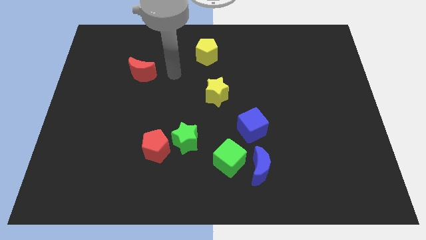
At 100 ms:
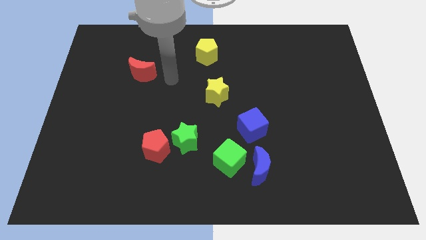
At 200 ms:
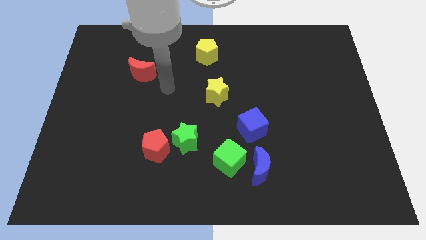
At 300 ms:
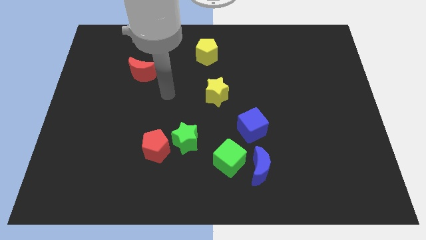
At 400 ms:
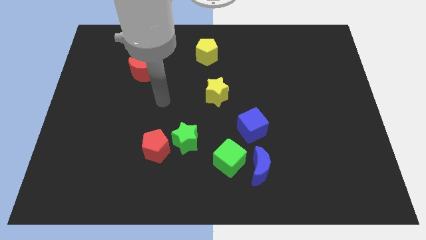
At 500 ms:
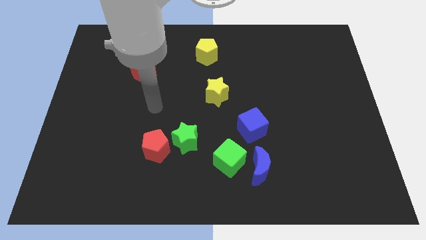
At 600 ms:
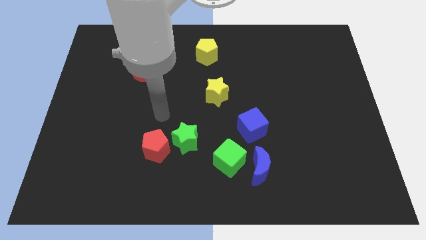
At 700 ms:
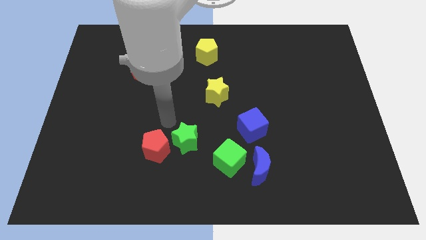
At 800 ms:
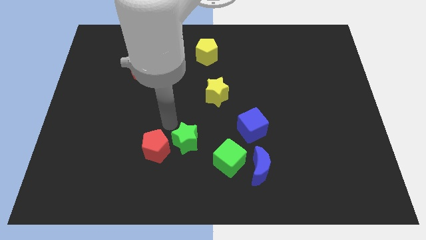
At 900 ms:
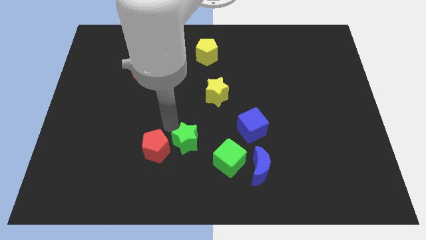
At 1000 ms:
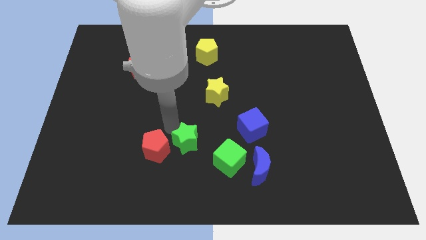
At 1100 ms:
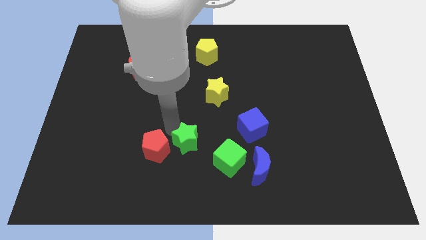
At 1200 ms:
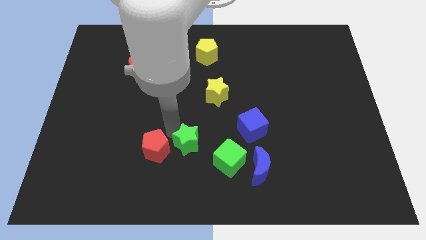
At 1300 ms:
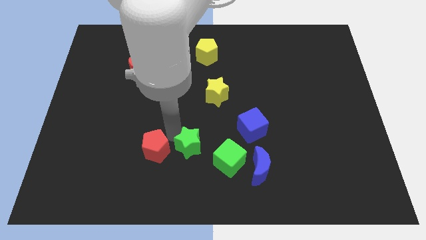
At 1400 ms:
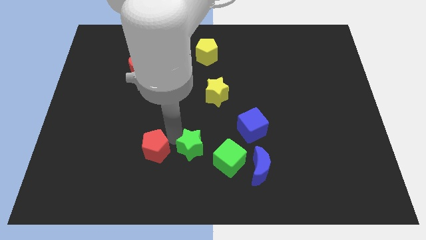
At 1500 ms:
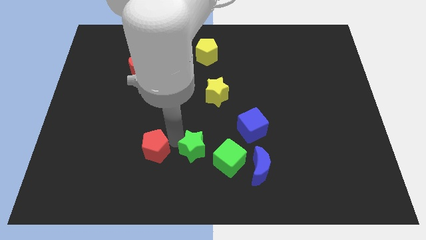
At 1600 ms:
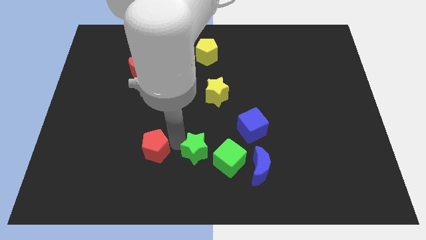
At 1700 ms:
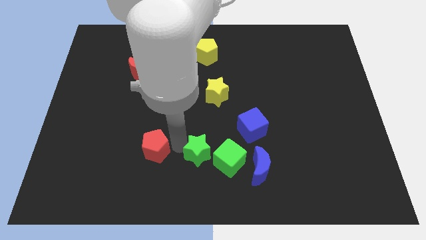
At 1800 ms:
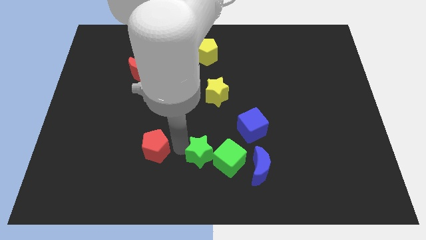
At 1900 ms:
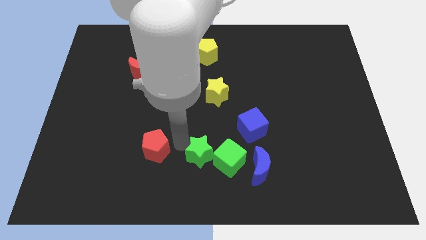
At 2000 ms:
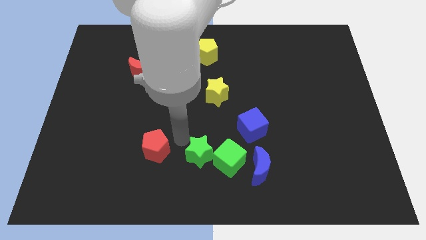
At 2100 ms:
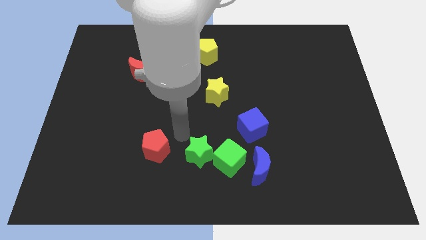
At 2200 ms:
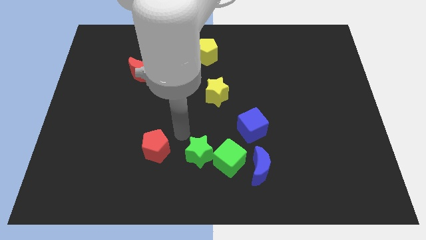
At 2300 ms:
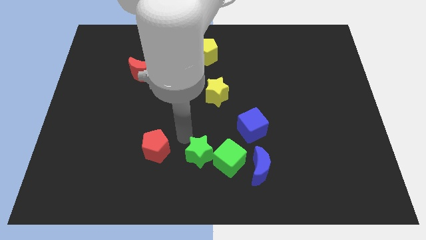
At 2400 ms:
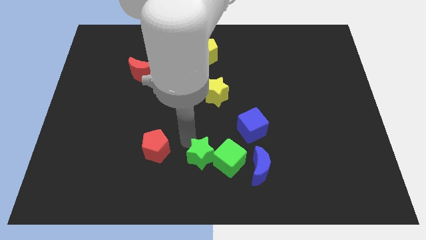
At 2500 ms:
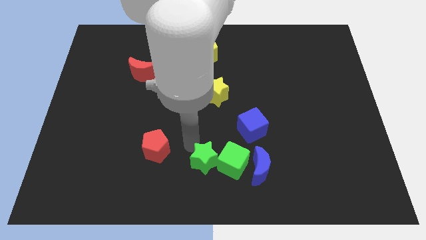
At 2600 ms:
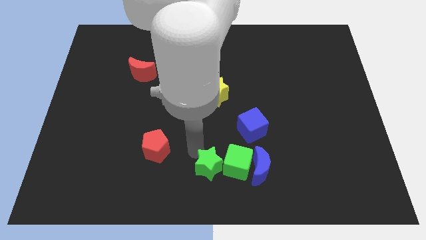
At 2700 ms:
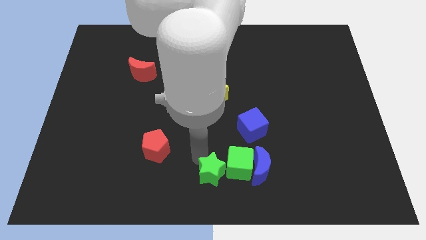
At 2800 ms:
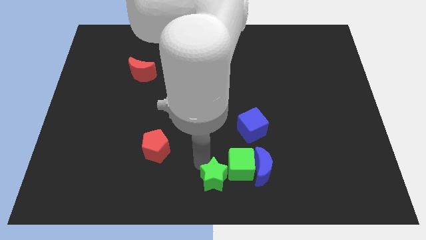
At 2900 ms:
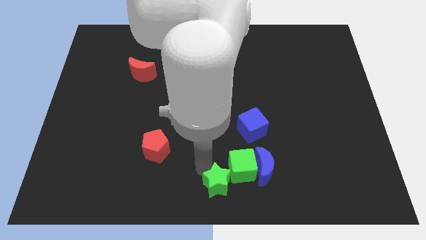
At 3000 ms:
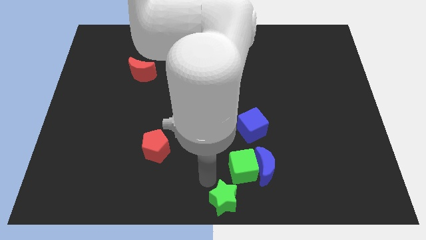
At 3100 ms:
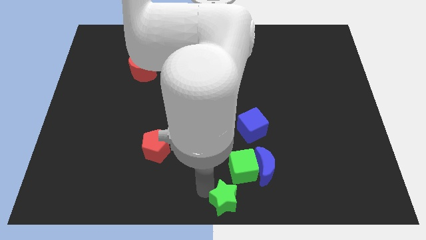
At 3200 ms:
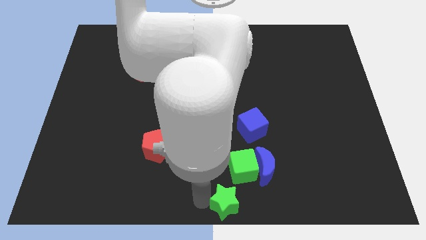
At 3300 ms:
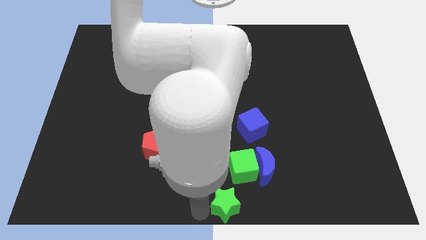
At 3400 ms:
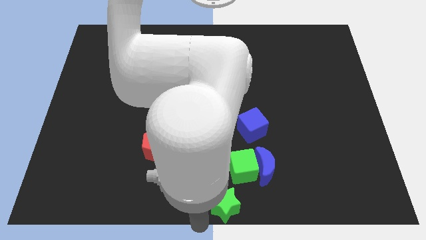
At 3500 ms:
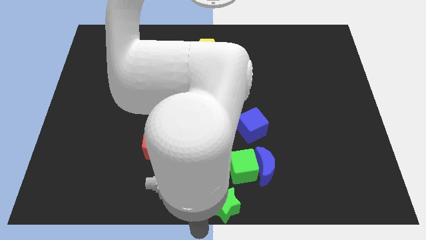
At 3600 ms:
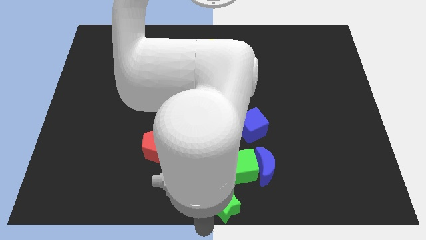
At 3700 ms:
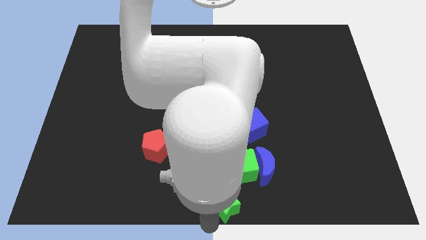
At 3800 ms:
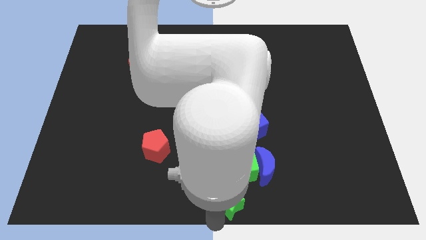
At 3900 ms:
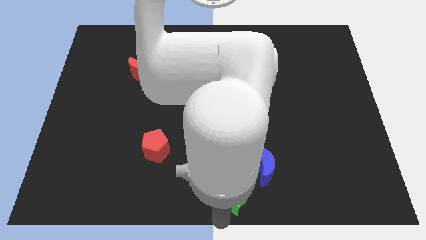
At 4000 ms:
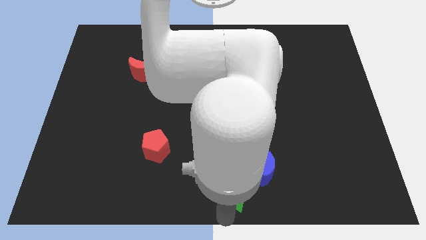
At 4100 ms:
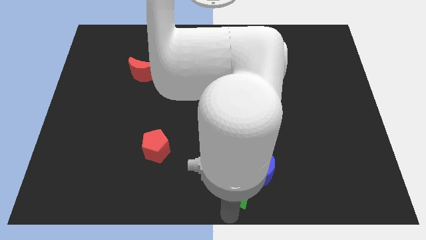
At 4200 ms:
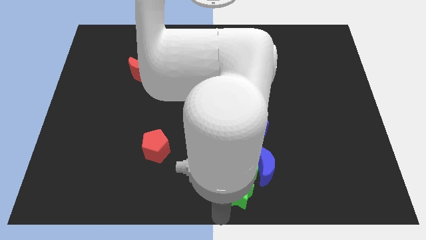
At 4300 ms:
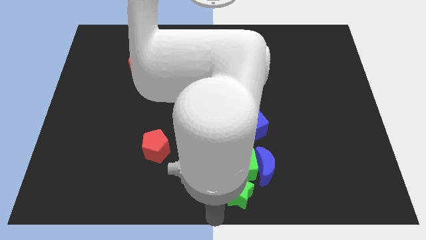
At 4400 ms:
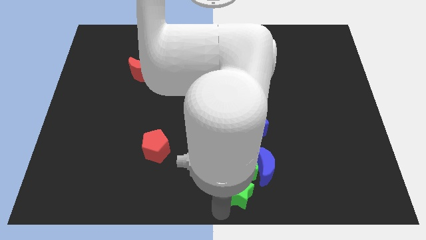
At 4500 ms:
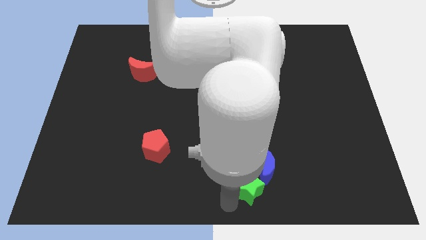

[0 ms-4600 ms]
slide the green star to the blue moon

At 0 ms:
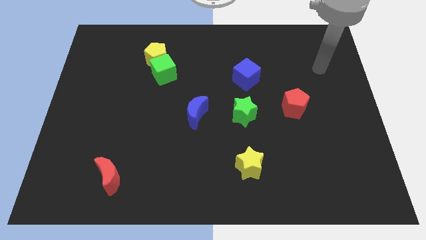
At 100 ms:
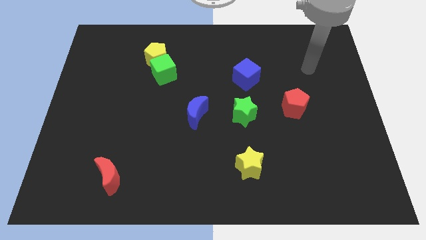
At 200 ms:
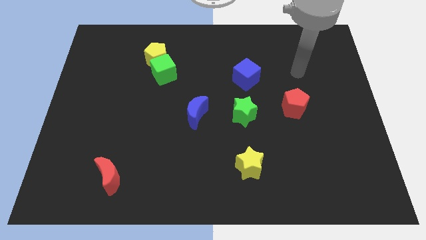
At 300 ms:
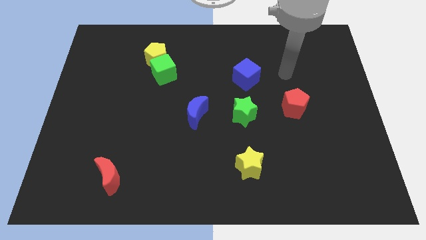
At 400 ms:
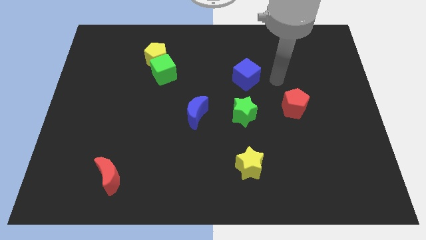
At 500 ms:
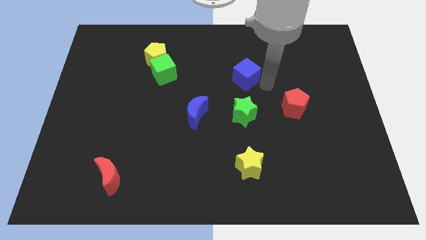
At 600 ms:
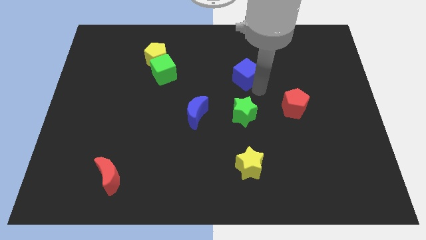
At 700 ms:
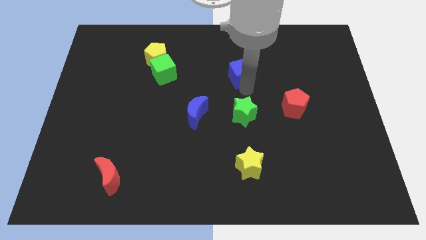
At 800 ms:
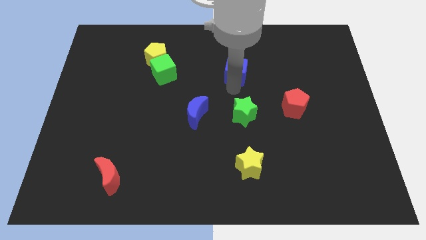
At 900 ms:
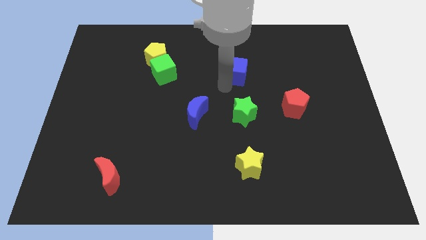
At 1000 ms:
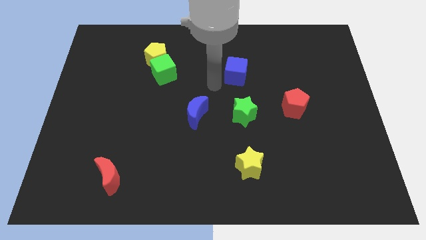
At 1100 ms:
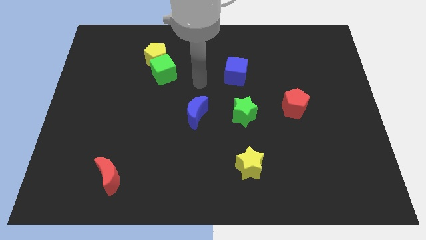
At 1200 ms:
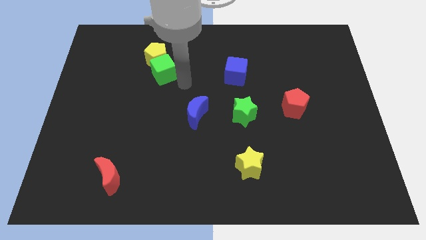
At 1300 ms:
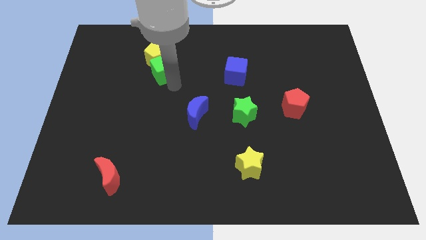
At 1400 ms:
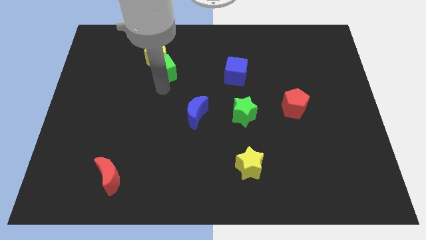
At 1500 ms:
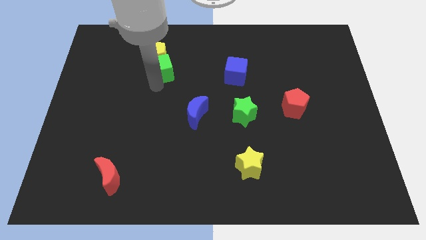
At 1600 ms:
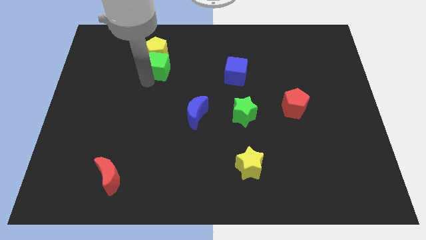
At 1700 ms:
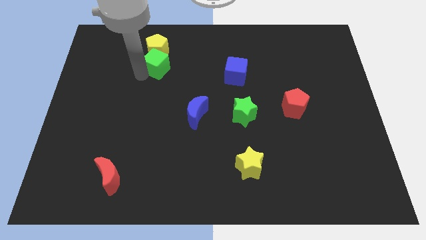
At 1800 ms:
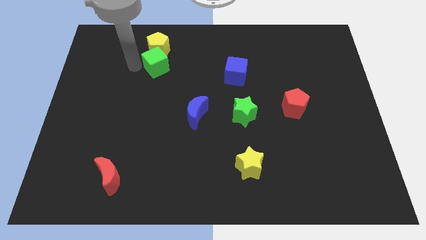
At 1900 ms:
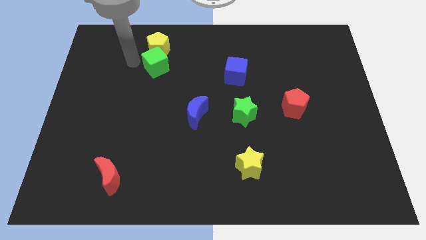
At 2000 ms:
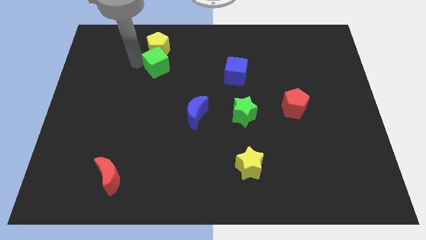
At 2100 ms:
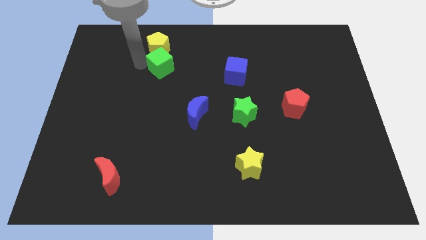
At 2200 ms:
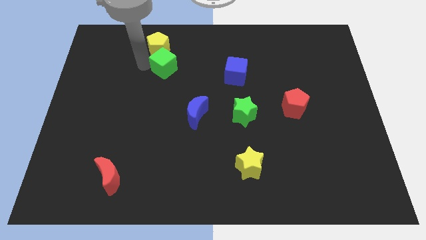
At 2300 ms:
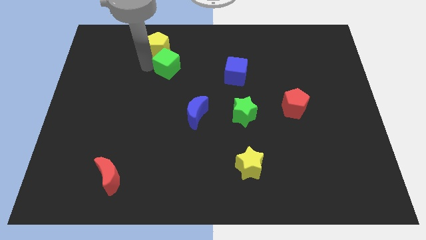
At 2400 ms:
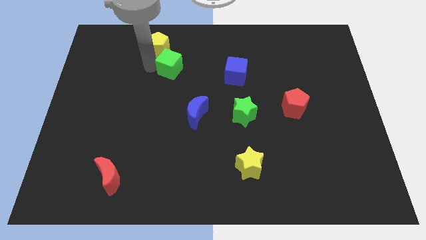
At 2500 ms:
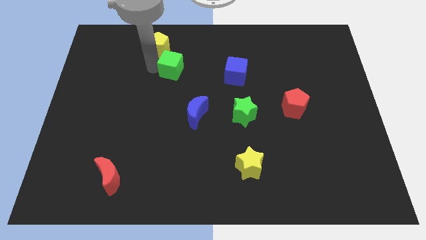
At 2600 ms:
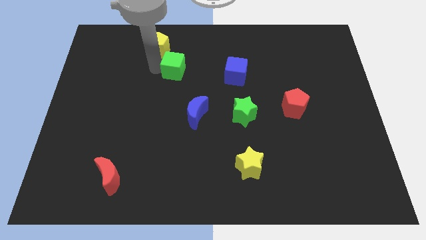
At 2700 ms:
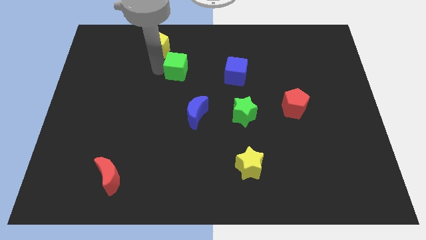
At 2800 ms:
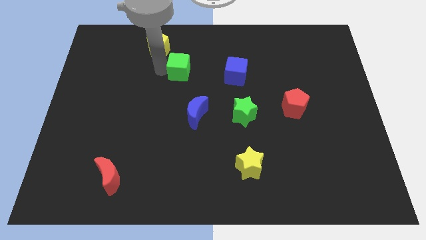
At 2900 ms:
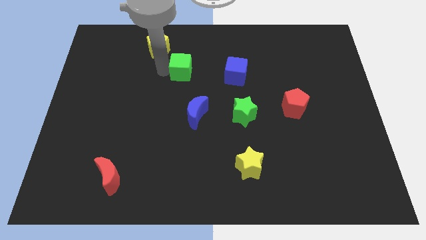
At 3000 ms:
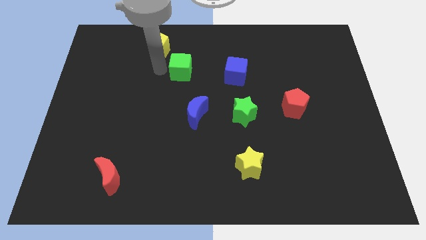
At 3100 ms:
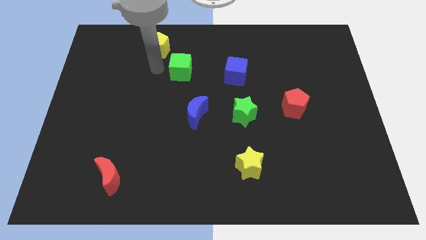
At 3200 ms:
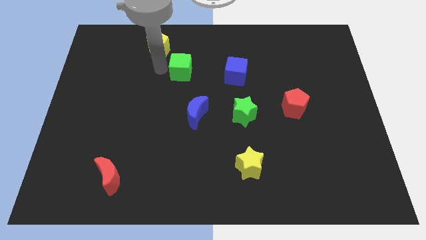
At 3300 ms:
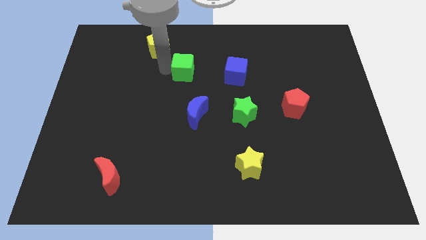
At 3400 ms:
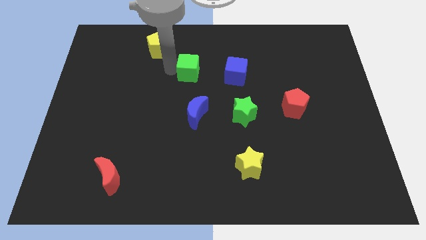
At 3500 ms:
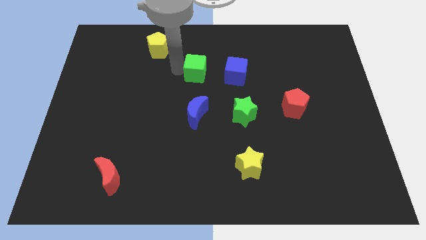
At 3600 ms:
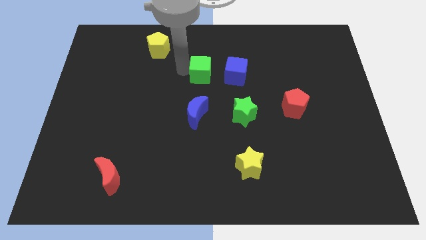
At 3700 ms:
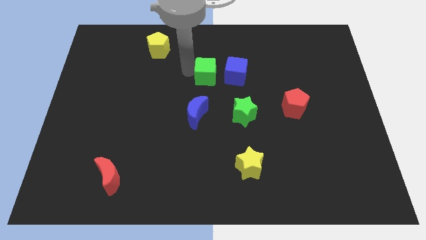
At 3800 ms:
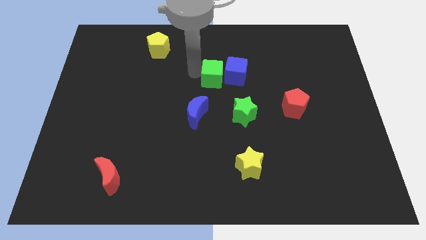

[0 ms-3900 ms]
put the green cube next to the blue cube
